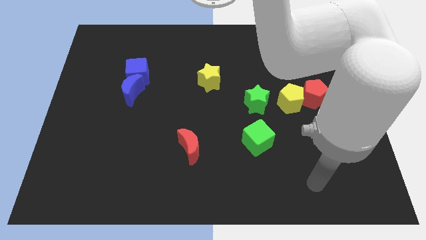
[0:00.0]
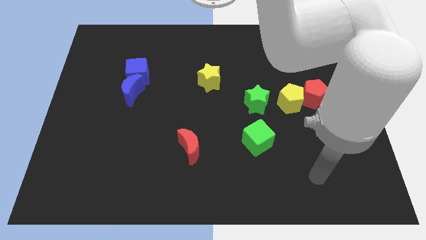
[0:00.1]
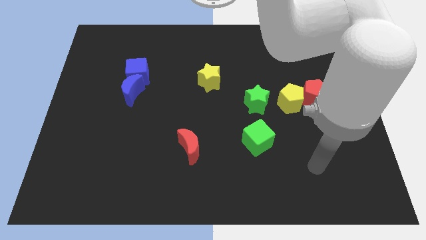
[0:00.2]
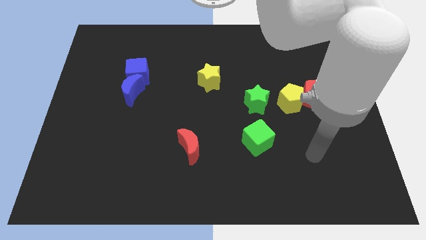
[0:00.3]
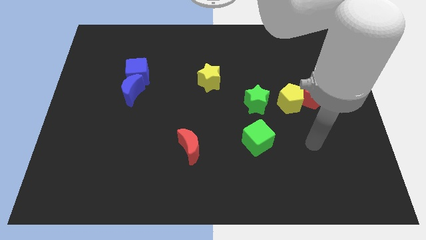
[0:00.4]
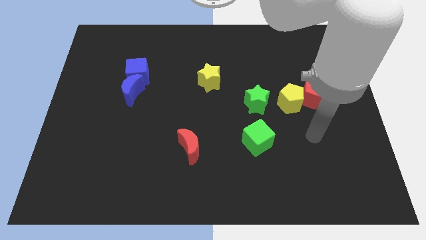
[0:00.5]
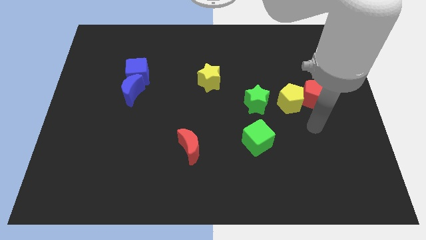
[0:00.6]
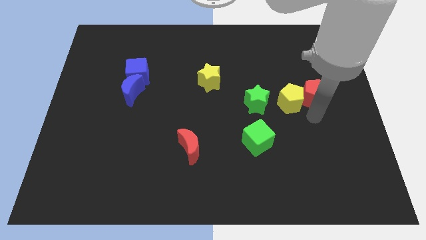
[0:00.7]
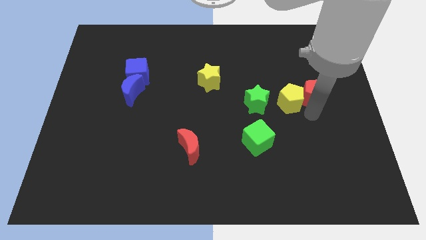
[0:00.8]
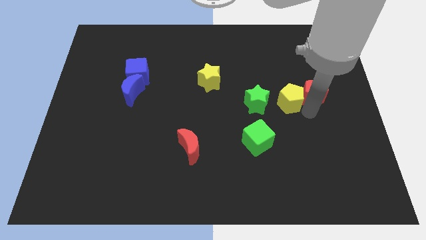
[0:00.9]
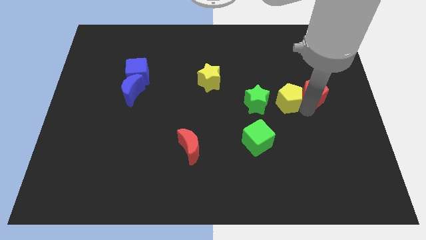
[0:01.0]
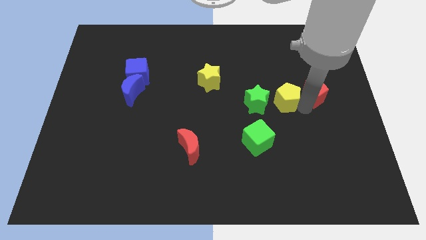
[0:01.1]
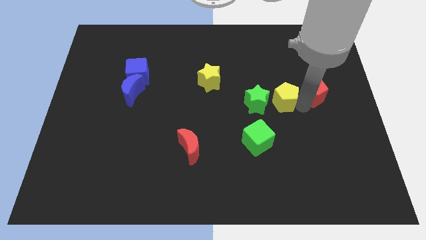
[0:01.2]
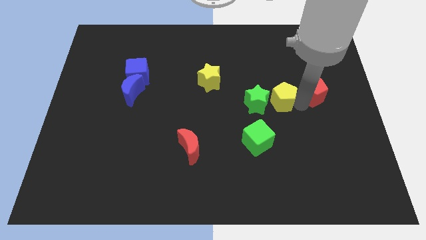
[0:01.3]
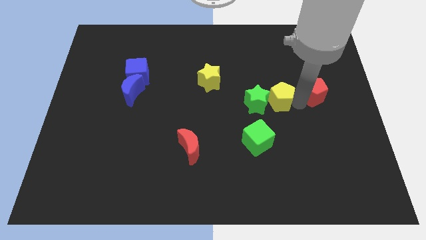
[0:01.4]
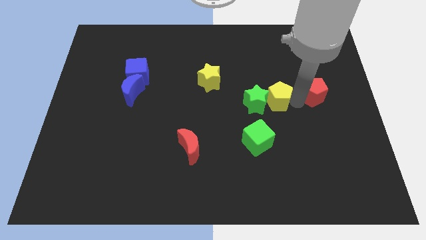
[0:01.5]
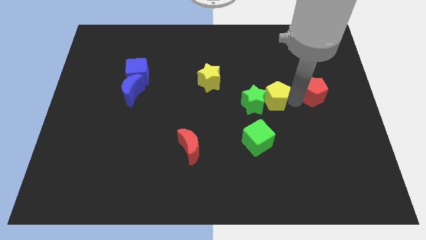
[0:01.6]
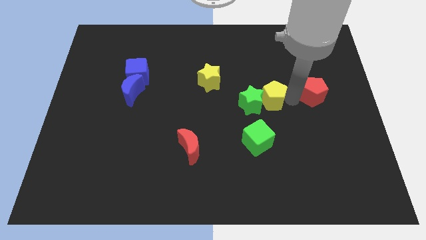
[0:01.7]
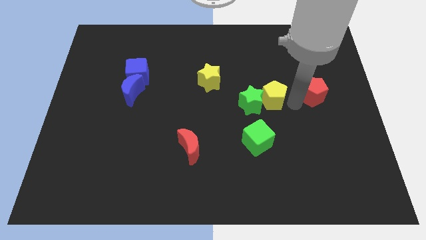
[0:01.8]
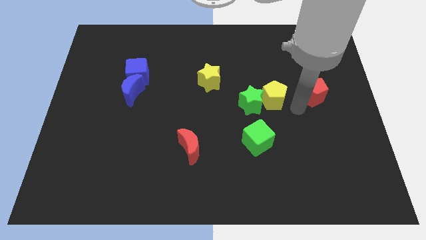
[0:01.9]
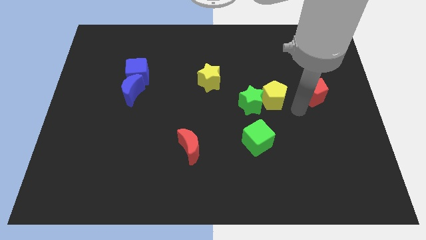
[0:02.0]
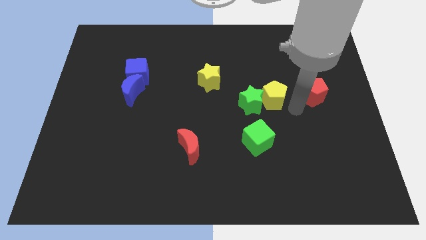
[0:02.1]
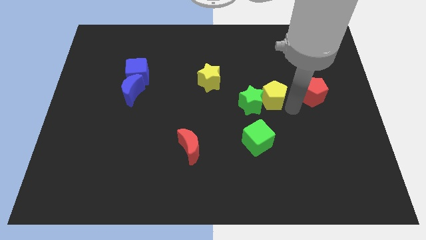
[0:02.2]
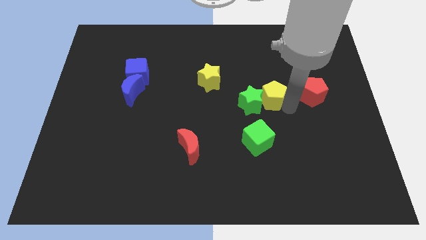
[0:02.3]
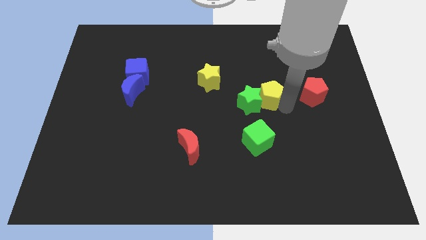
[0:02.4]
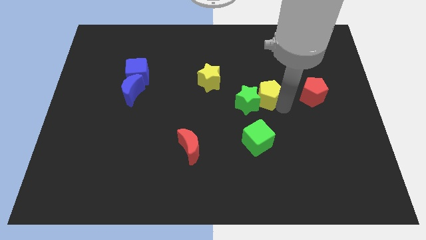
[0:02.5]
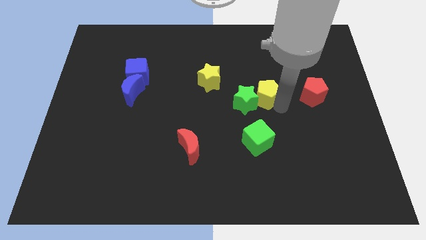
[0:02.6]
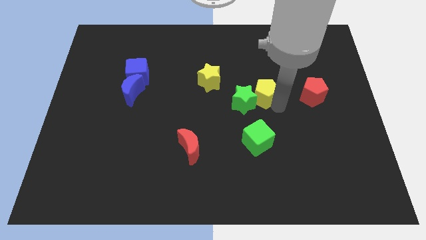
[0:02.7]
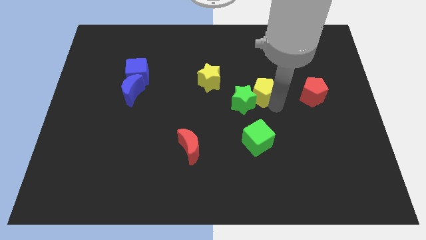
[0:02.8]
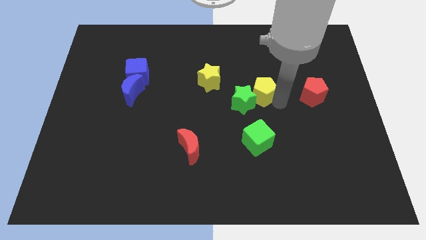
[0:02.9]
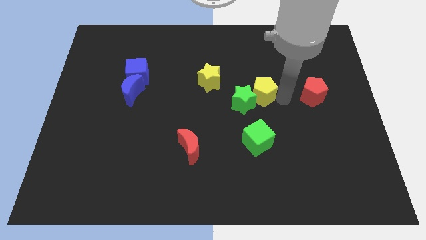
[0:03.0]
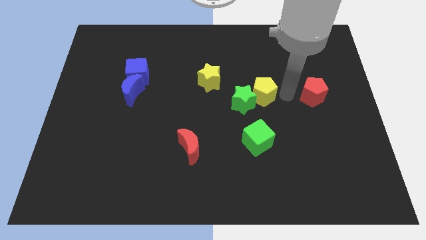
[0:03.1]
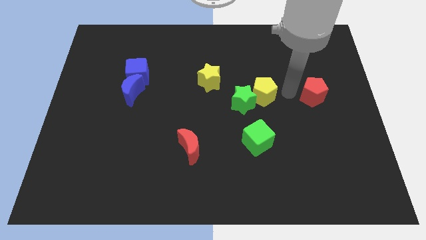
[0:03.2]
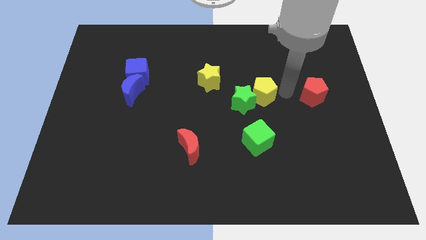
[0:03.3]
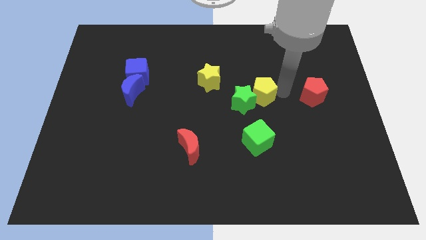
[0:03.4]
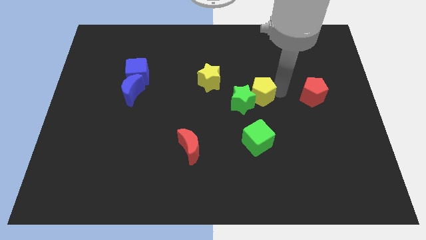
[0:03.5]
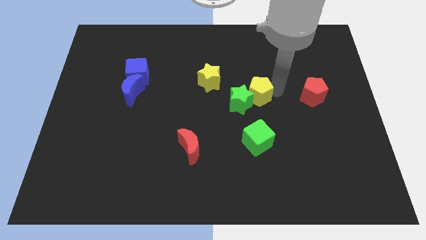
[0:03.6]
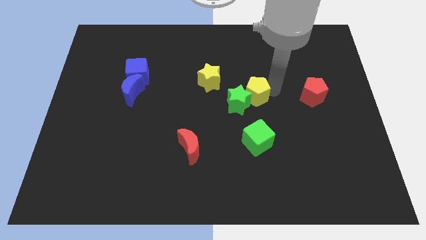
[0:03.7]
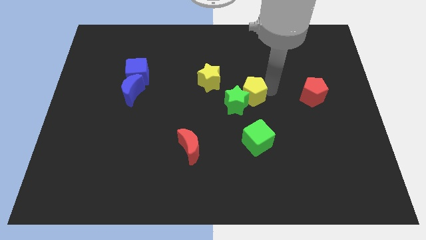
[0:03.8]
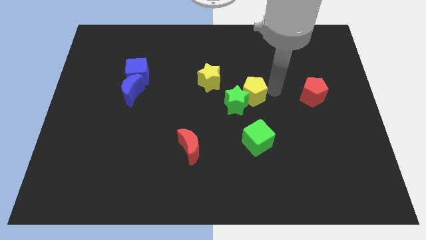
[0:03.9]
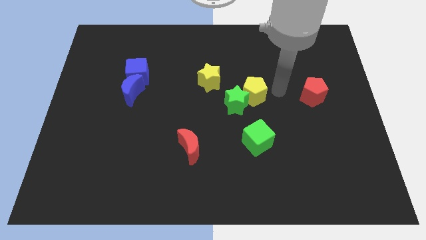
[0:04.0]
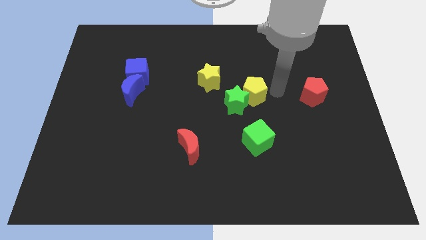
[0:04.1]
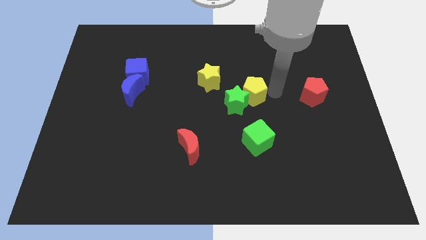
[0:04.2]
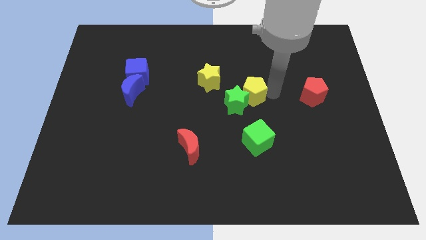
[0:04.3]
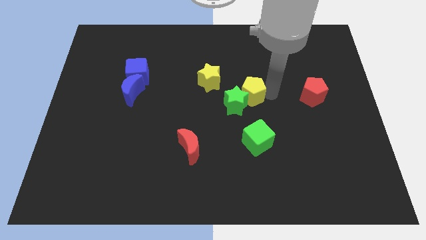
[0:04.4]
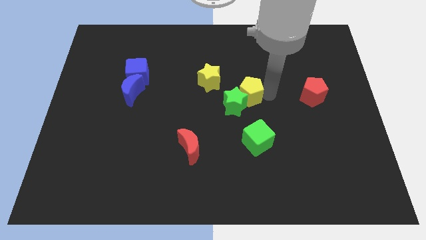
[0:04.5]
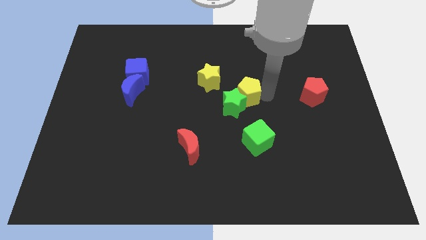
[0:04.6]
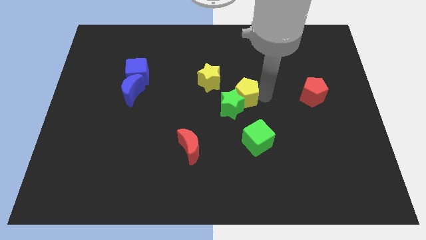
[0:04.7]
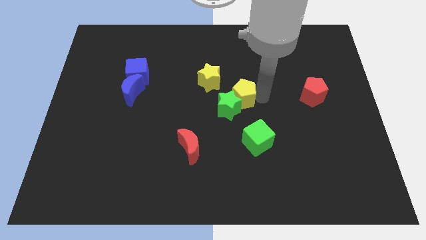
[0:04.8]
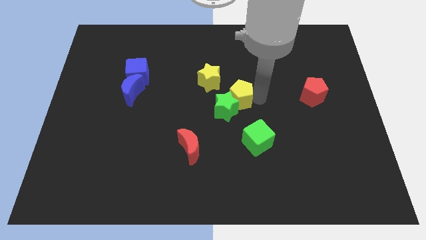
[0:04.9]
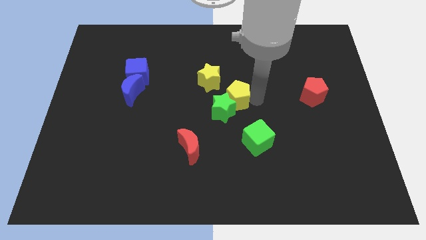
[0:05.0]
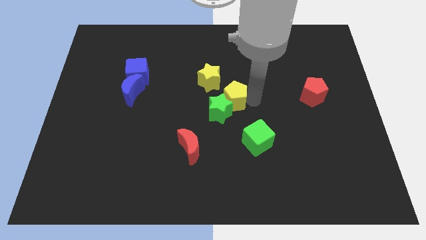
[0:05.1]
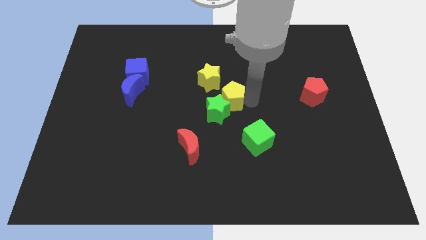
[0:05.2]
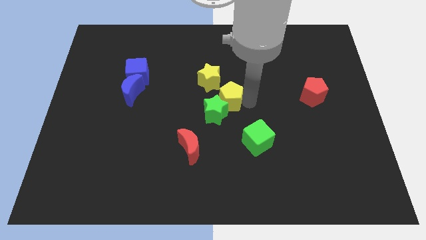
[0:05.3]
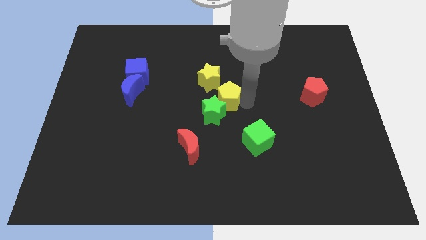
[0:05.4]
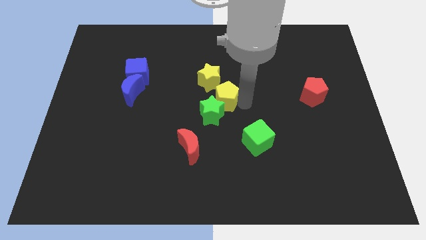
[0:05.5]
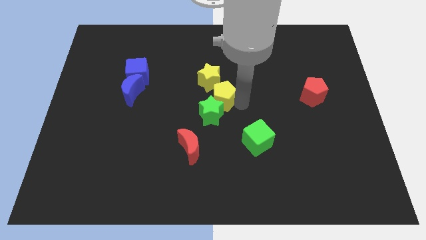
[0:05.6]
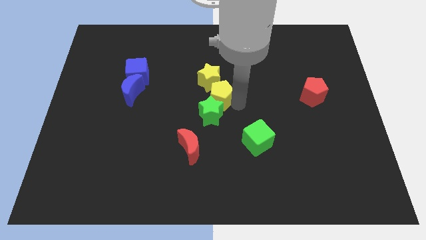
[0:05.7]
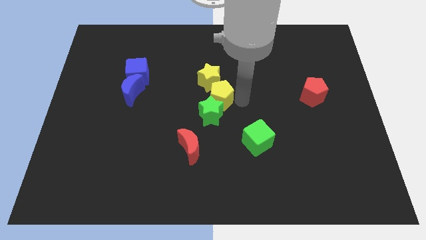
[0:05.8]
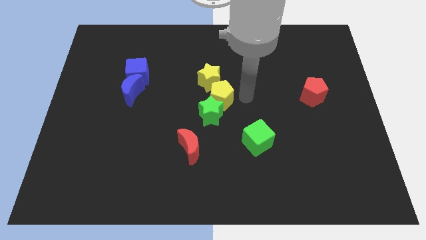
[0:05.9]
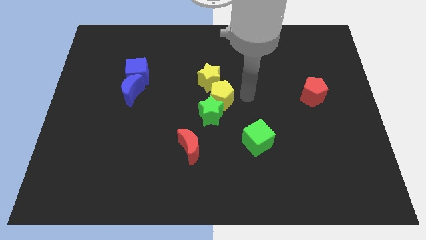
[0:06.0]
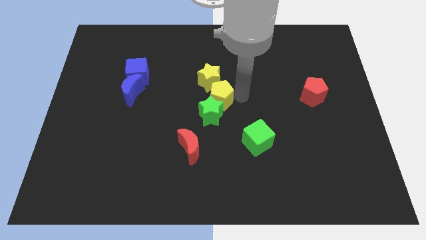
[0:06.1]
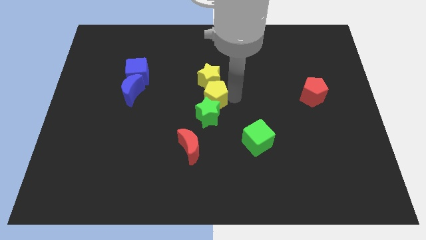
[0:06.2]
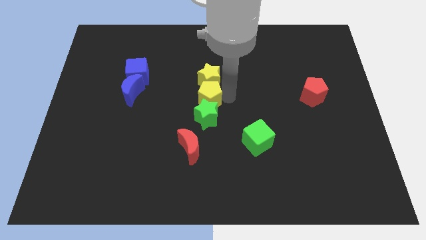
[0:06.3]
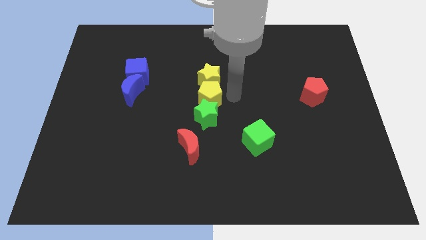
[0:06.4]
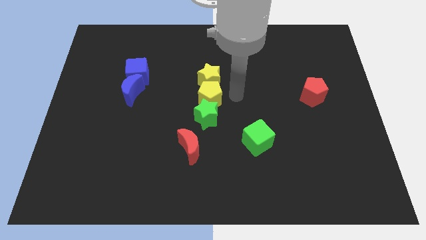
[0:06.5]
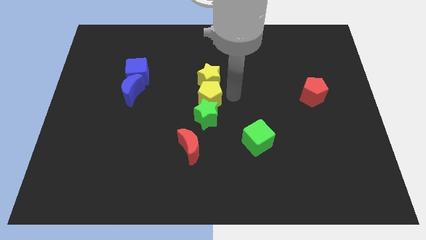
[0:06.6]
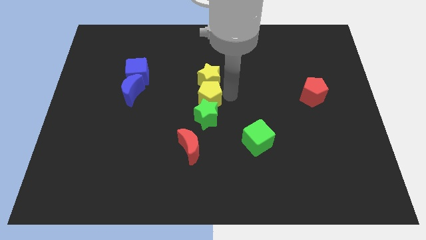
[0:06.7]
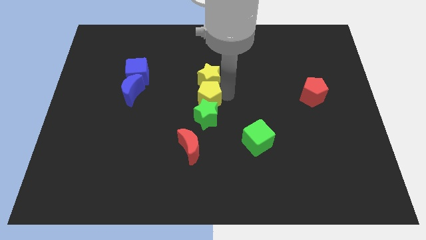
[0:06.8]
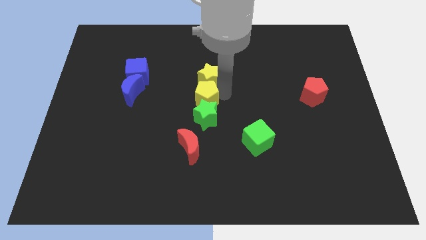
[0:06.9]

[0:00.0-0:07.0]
push the yellow pentagon left

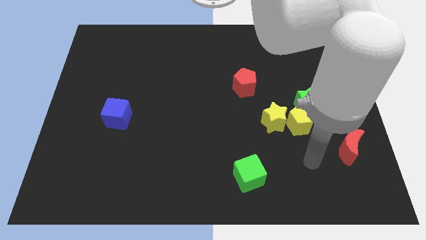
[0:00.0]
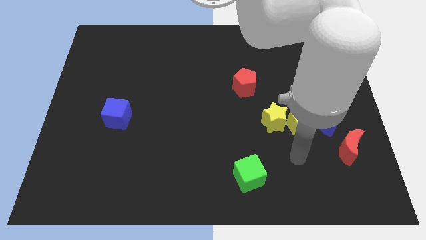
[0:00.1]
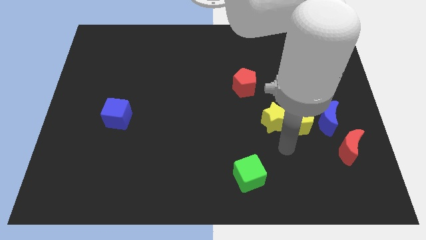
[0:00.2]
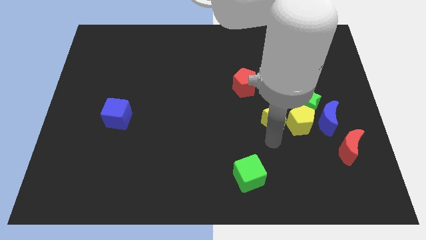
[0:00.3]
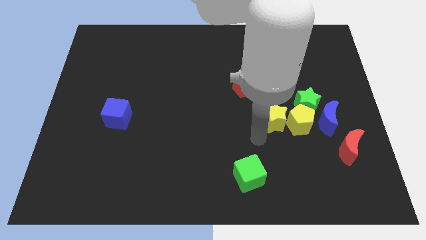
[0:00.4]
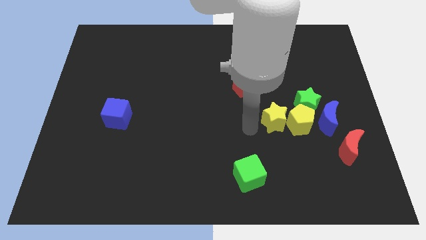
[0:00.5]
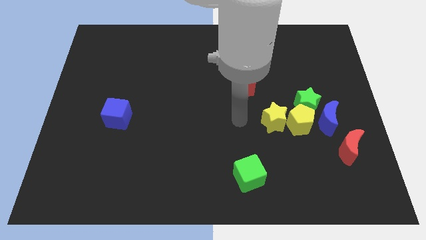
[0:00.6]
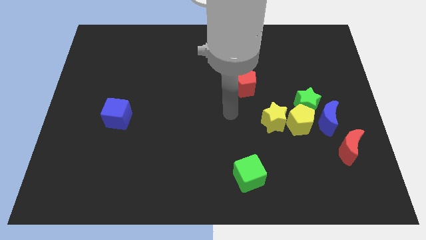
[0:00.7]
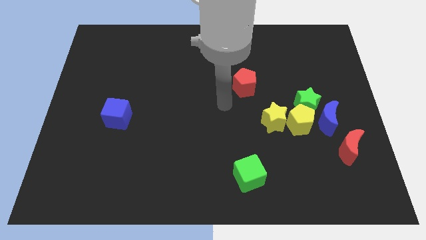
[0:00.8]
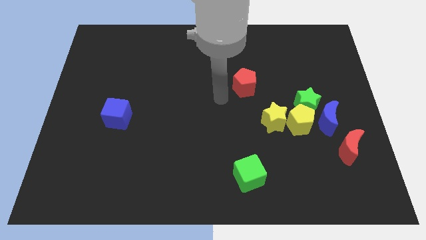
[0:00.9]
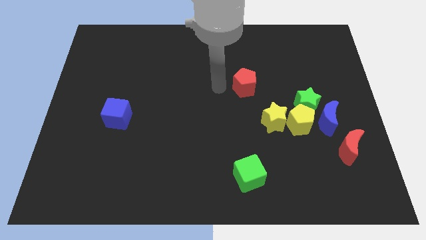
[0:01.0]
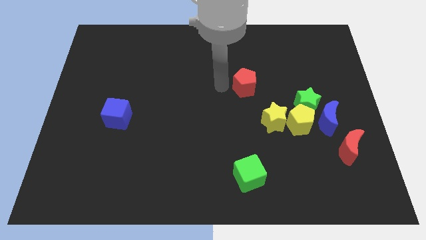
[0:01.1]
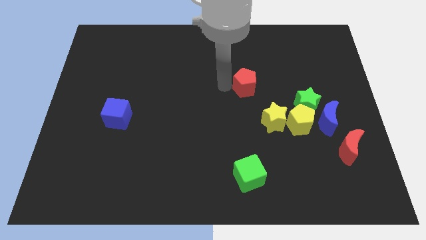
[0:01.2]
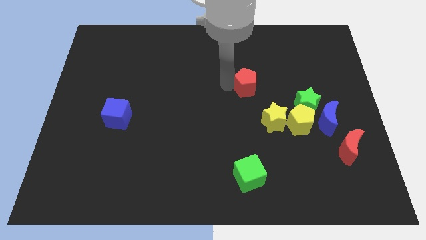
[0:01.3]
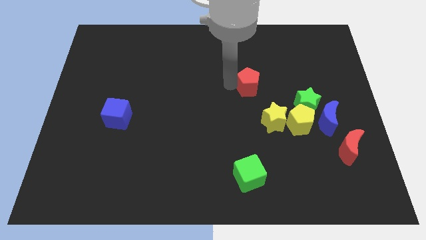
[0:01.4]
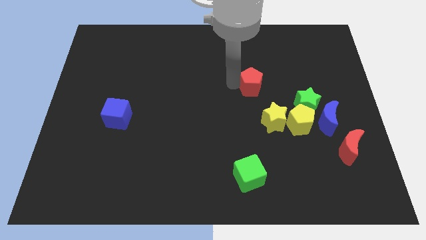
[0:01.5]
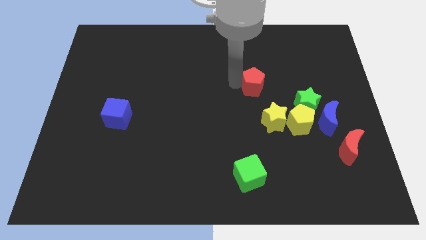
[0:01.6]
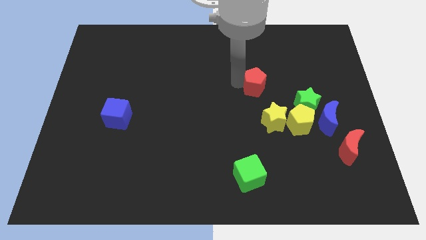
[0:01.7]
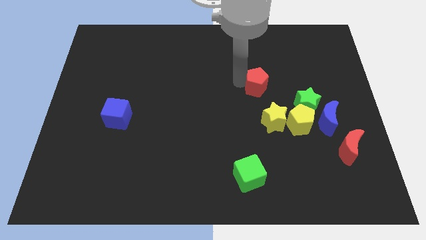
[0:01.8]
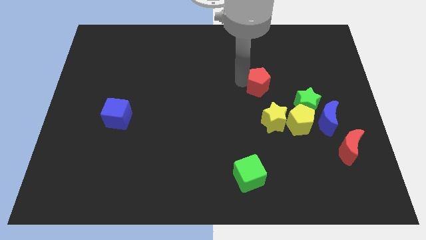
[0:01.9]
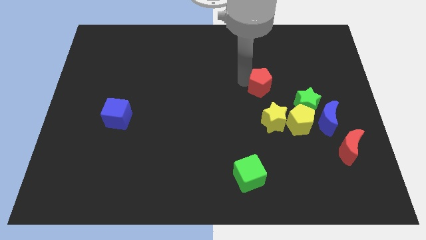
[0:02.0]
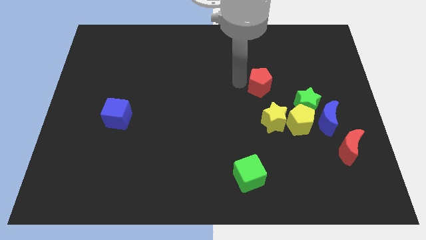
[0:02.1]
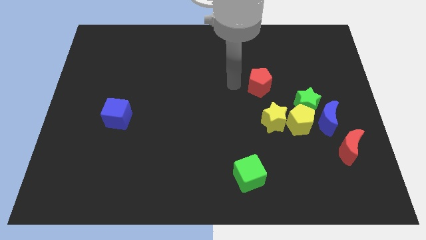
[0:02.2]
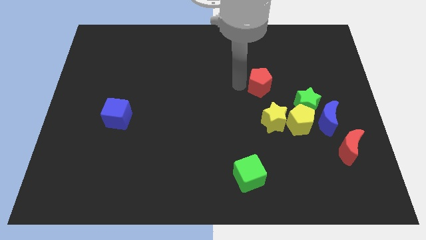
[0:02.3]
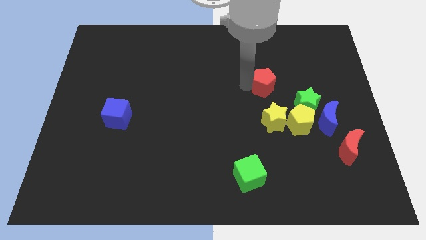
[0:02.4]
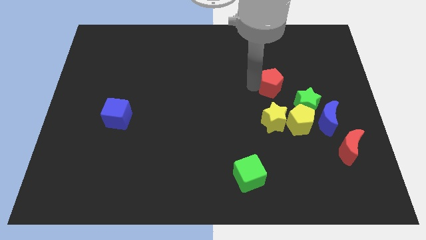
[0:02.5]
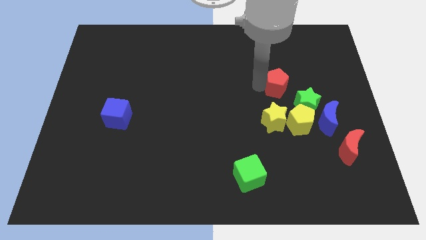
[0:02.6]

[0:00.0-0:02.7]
slide the red pentagon a little to the right
